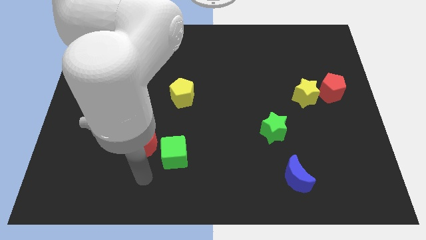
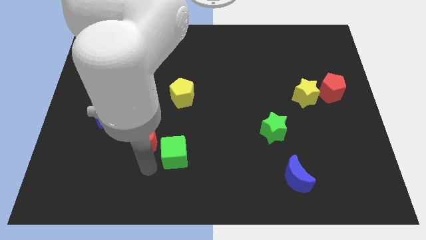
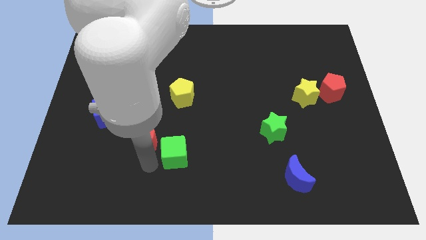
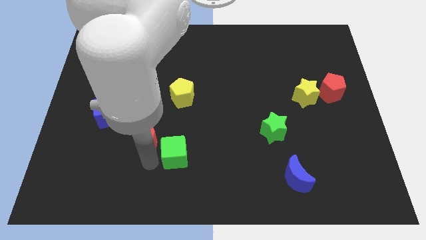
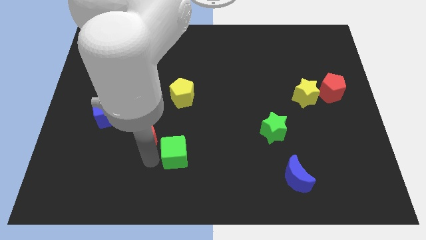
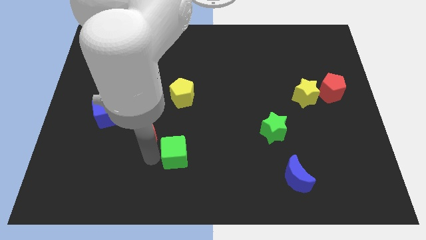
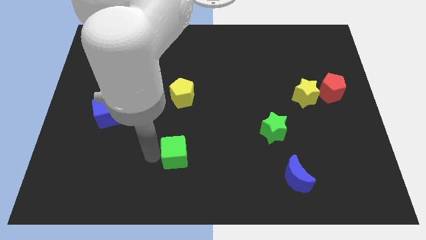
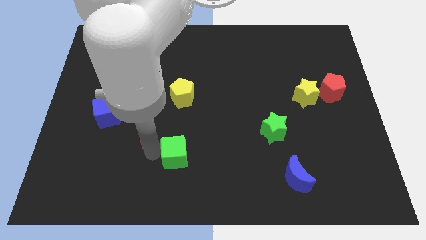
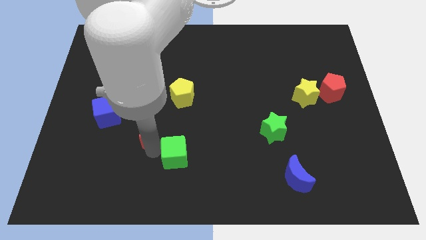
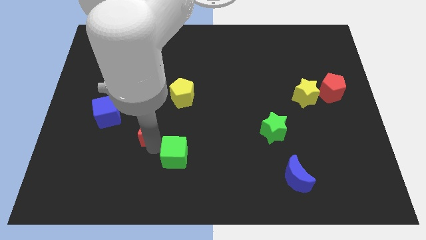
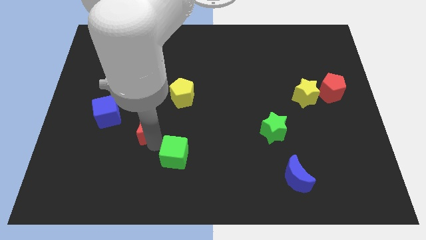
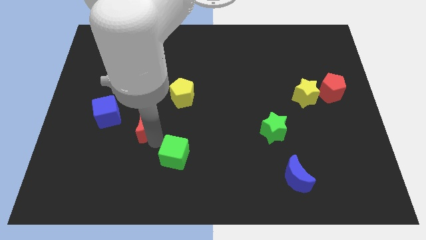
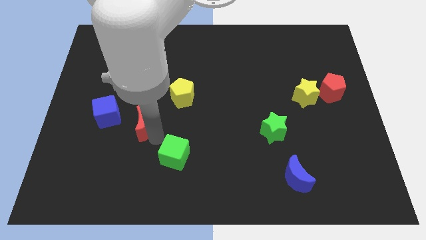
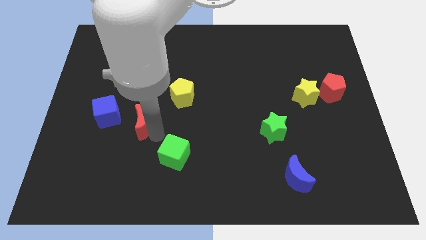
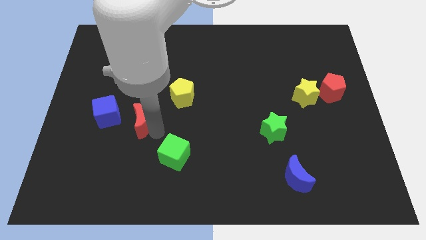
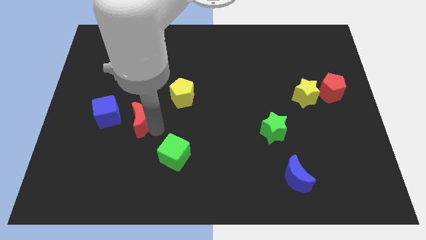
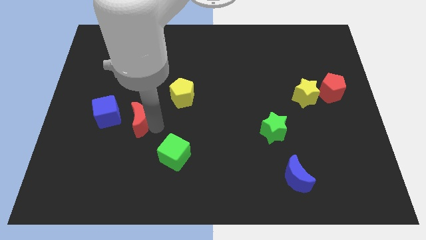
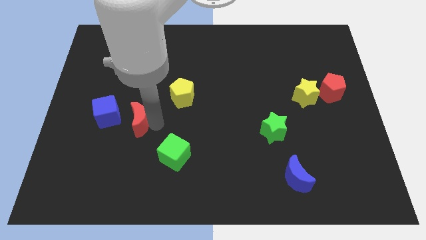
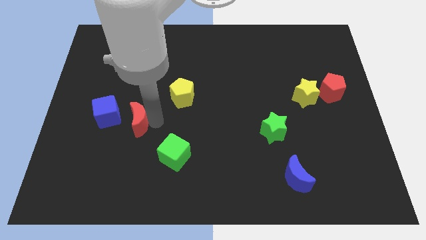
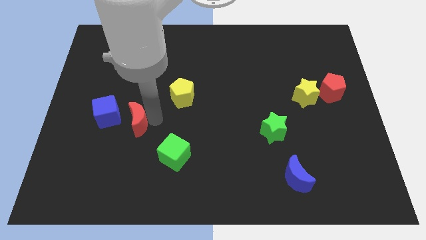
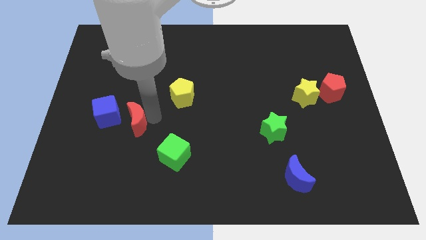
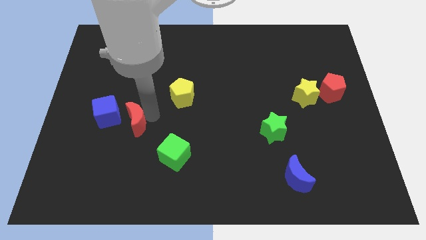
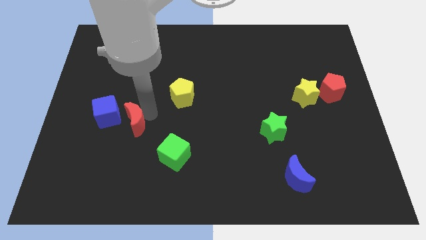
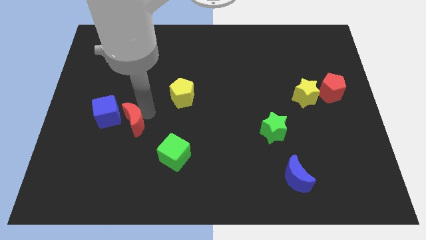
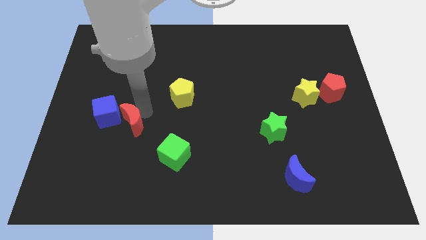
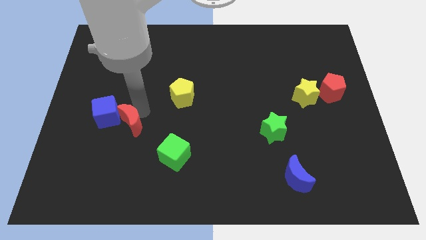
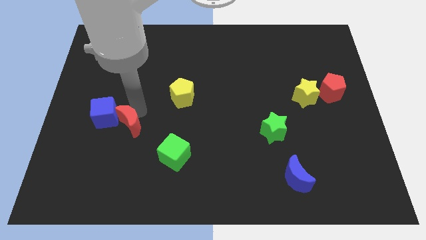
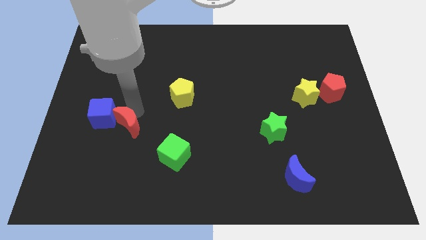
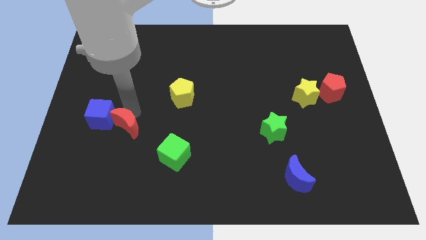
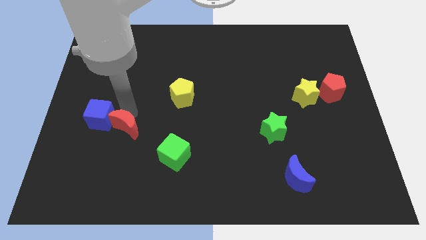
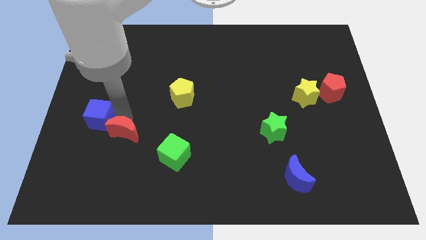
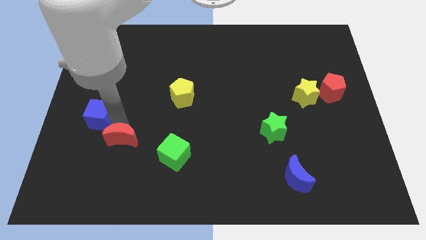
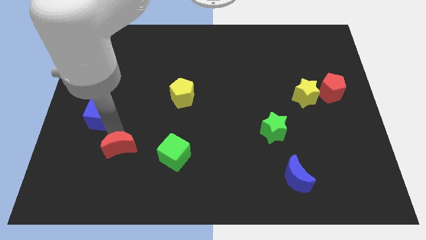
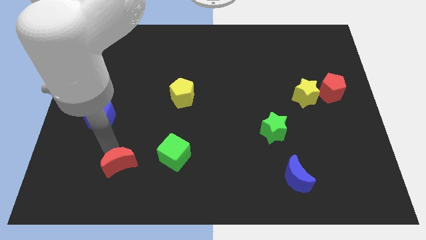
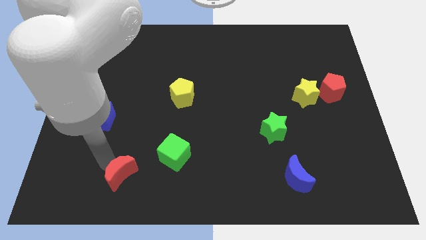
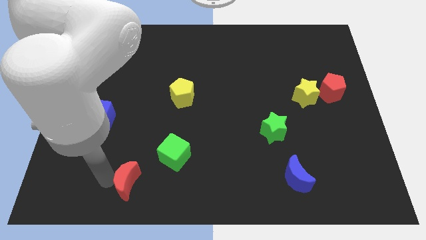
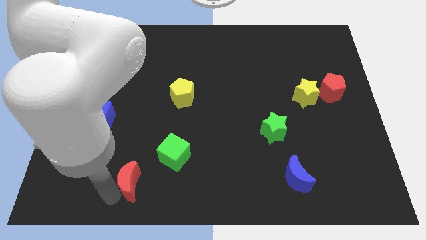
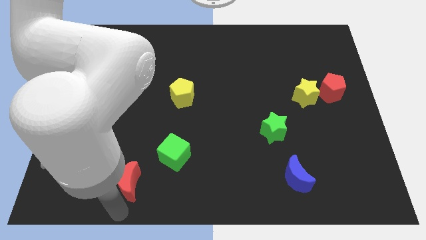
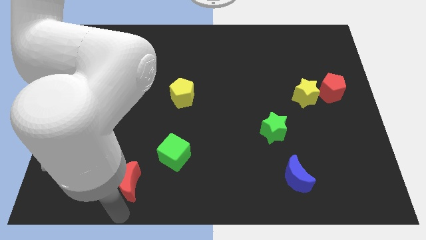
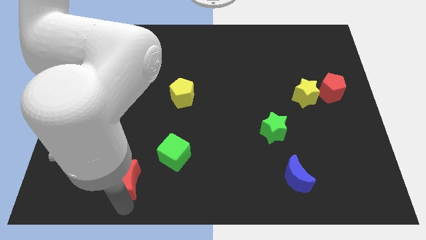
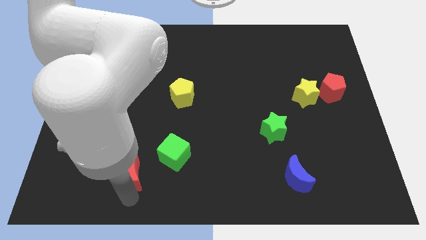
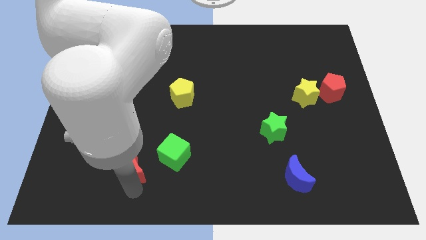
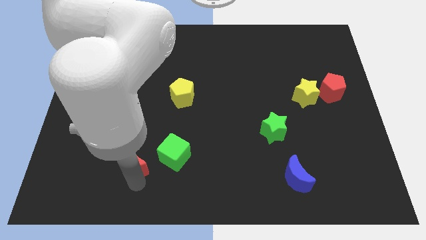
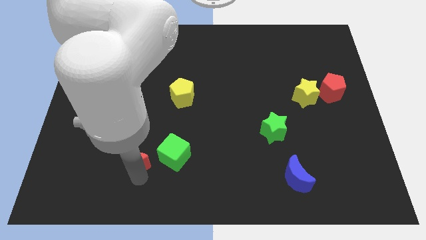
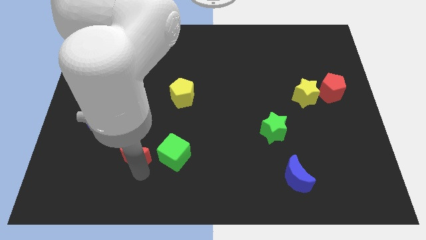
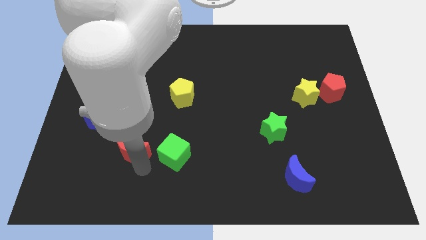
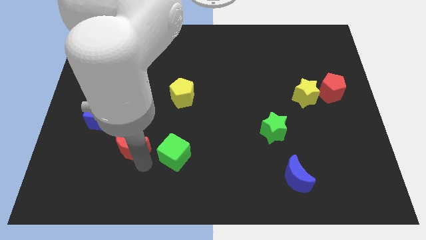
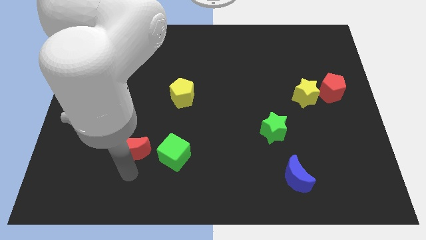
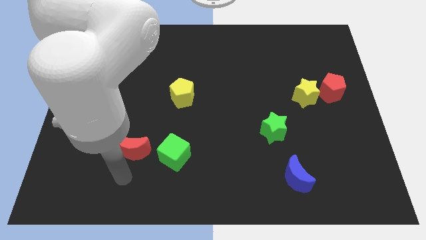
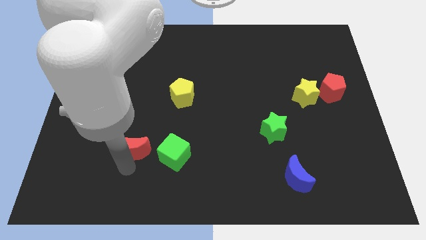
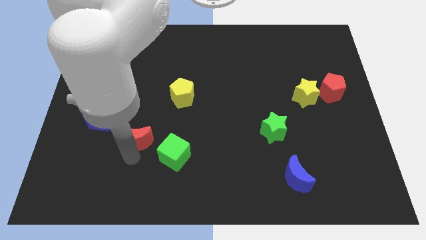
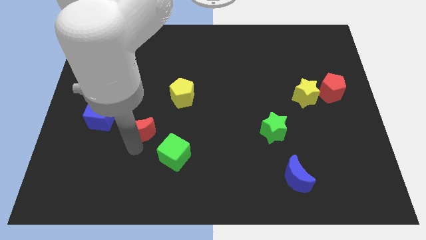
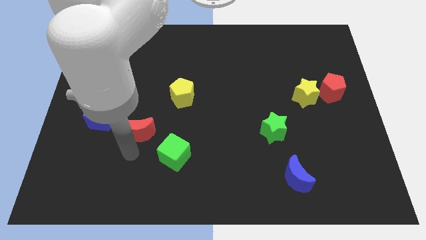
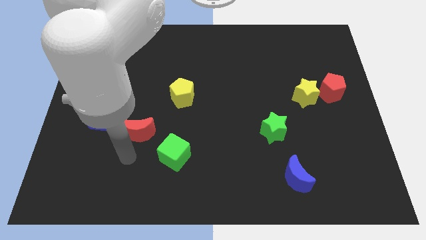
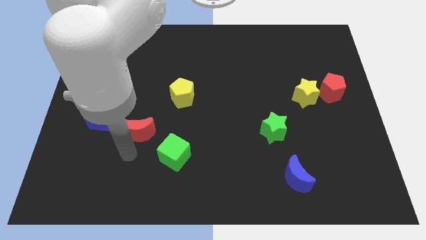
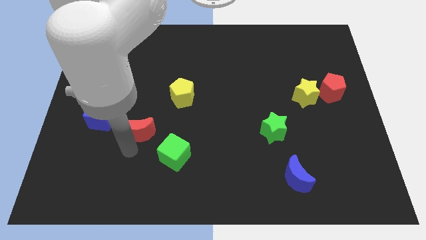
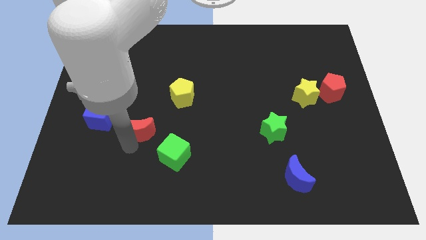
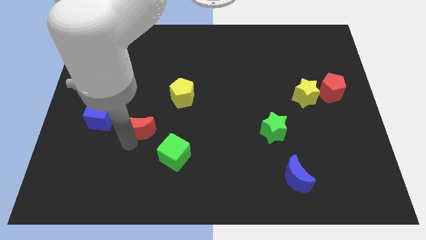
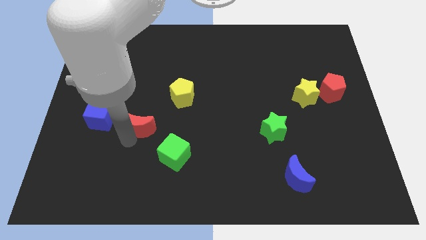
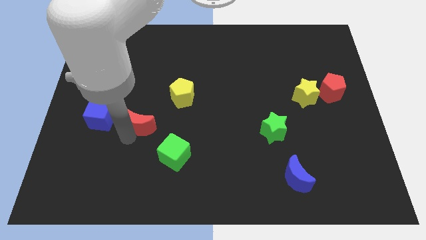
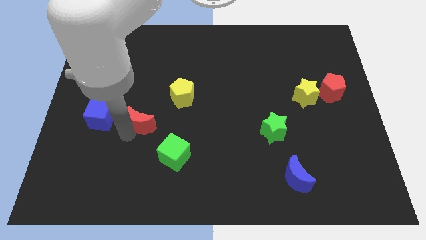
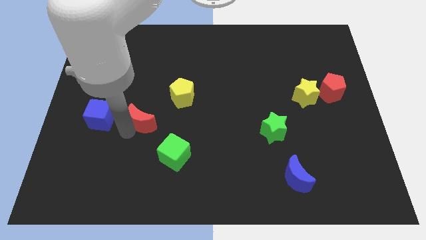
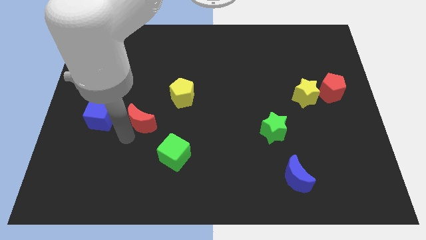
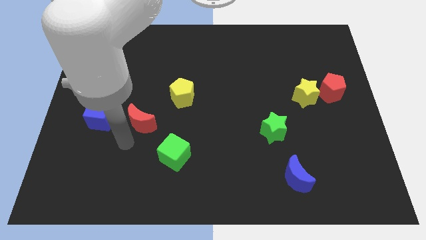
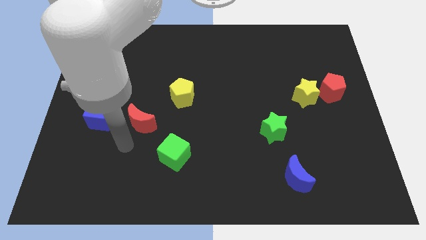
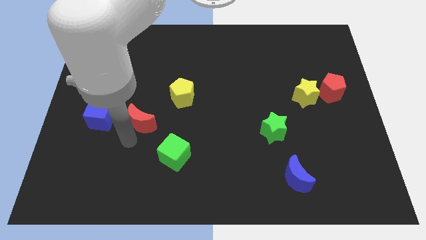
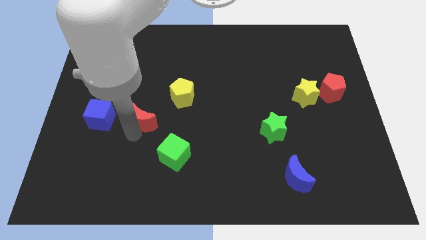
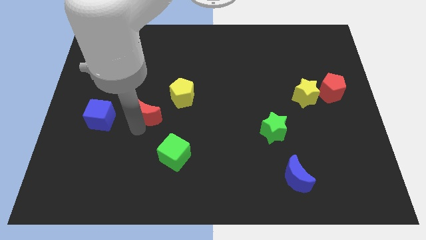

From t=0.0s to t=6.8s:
push the red moon up a little bit

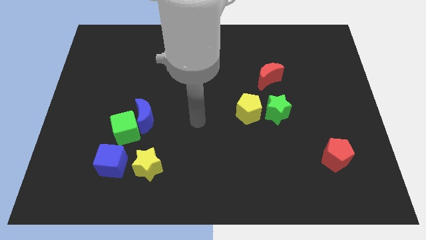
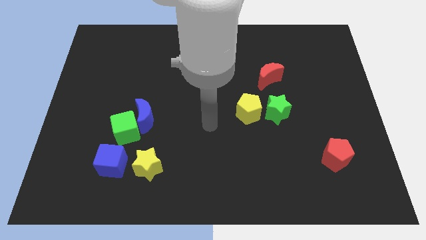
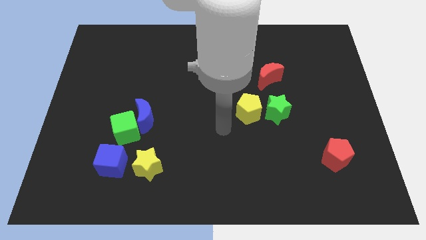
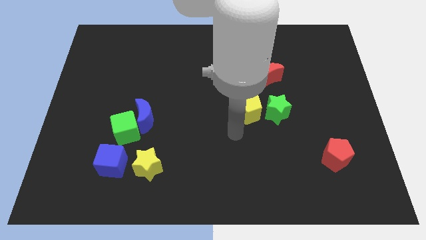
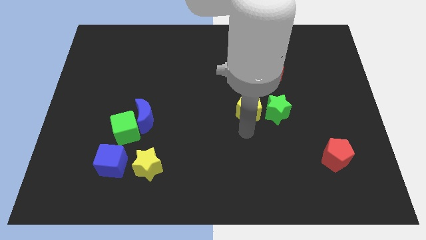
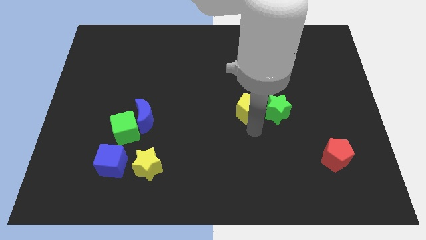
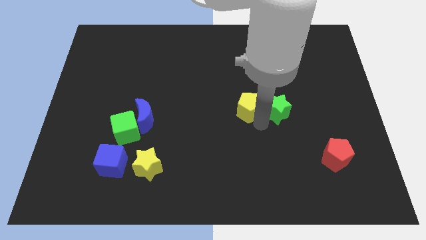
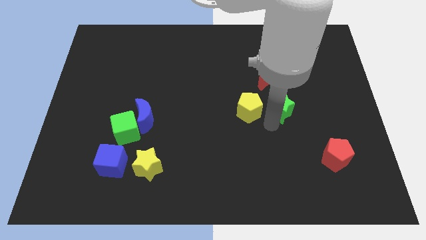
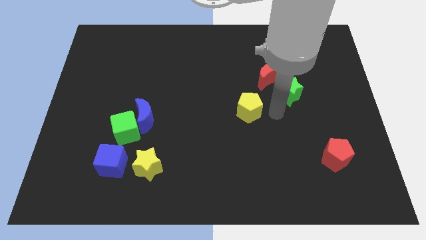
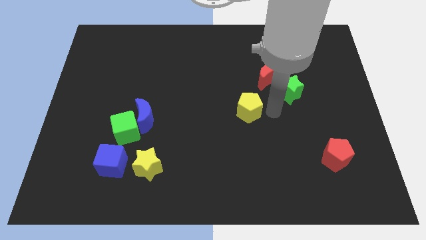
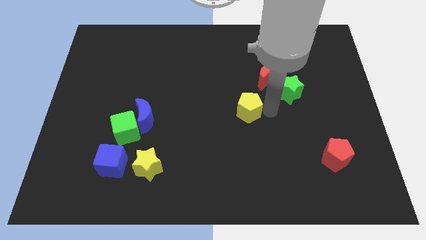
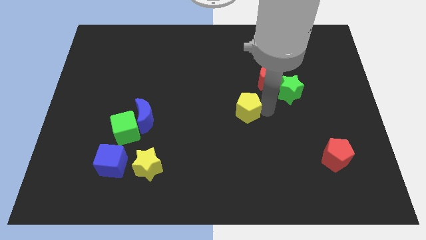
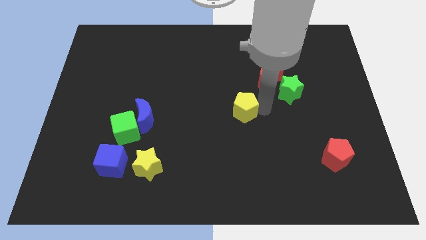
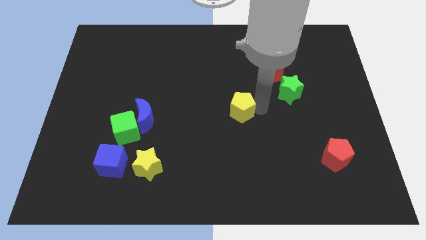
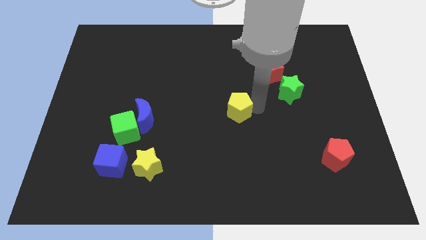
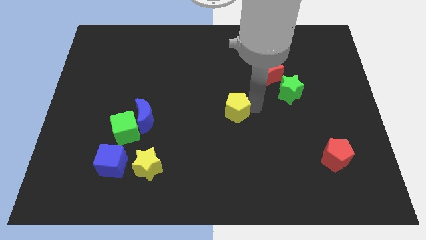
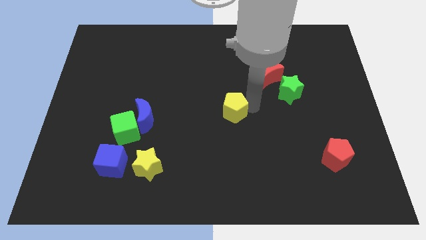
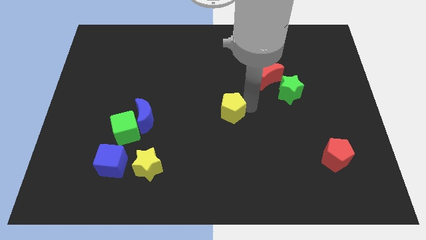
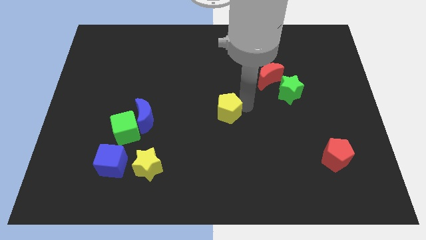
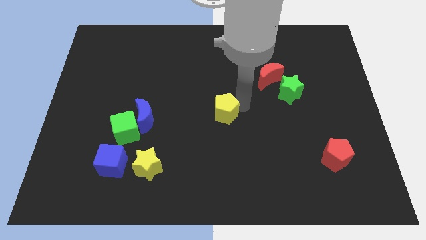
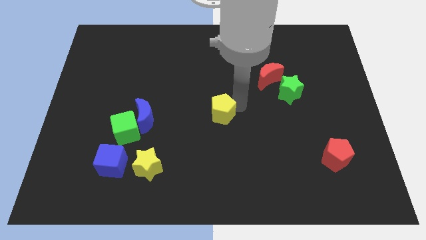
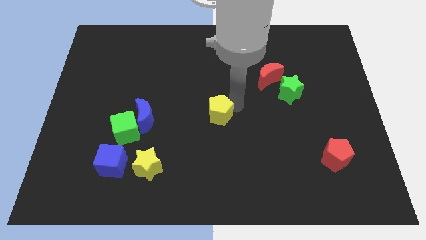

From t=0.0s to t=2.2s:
push the yellow pentagon left a bit
